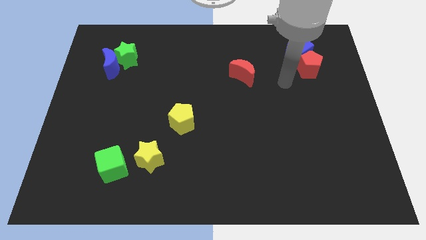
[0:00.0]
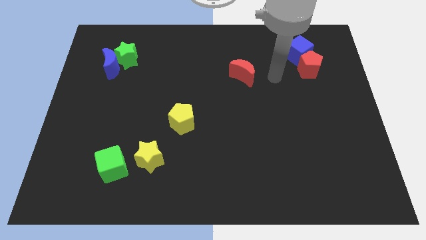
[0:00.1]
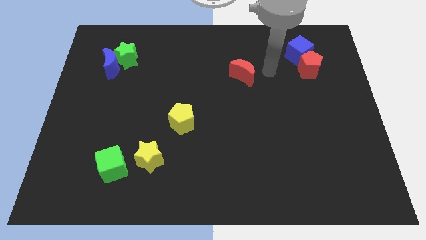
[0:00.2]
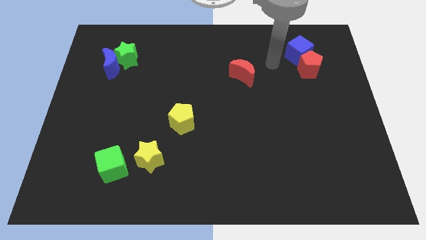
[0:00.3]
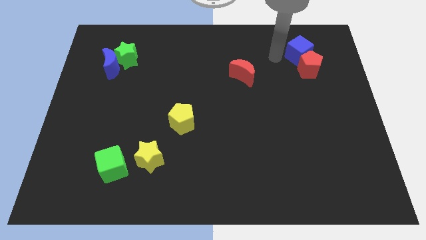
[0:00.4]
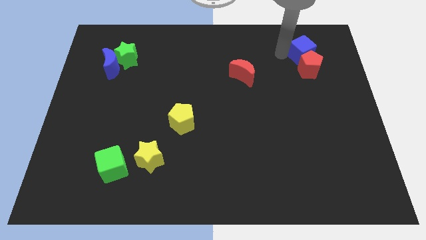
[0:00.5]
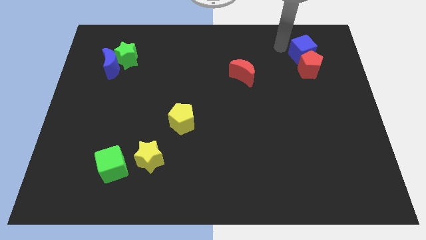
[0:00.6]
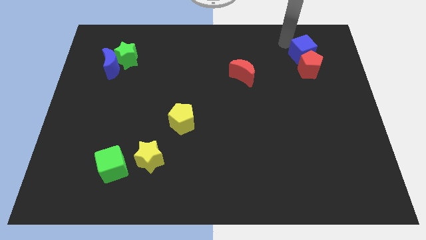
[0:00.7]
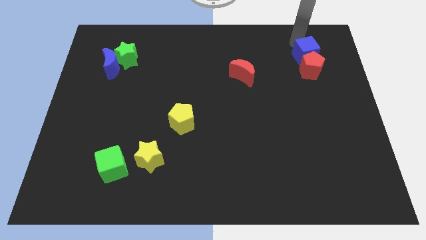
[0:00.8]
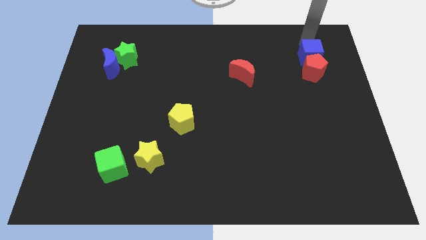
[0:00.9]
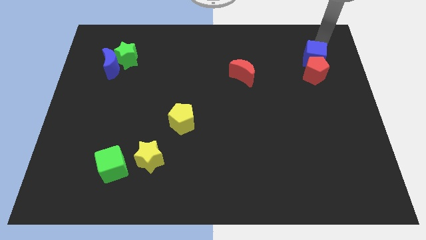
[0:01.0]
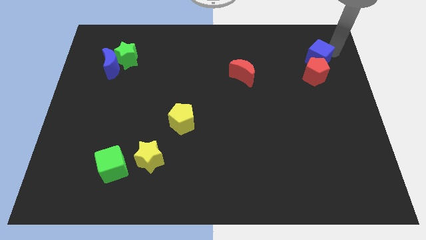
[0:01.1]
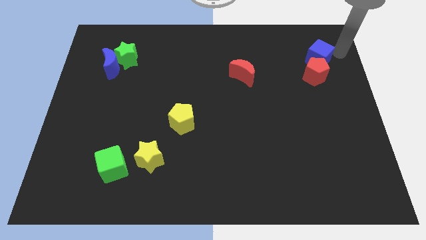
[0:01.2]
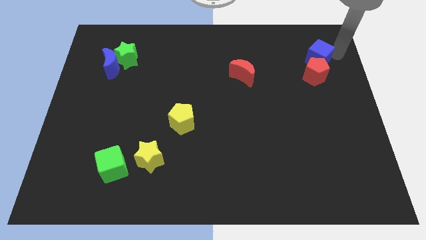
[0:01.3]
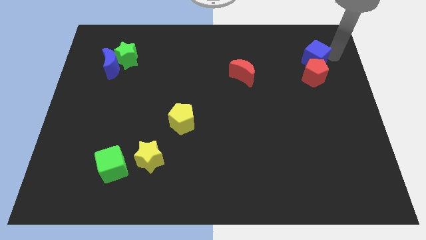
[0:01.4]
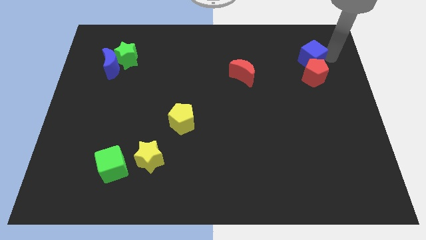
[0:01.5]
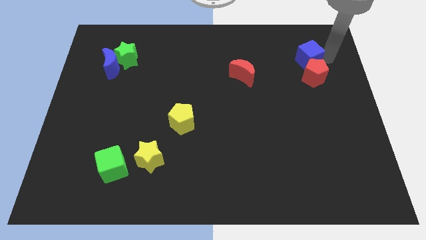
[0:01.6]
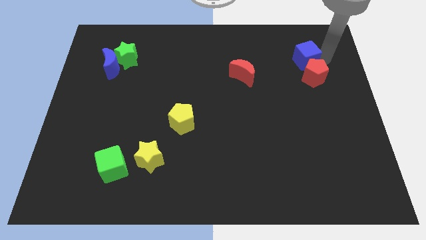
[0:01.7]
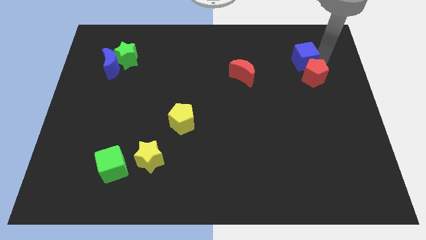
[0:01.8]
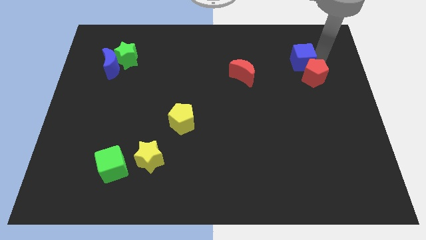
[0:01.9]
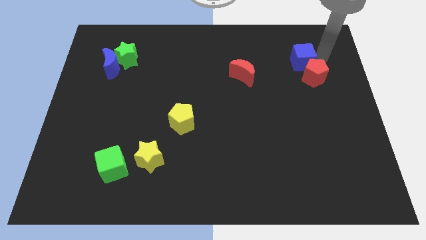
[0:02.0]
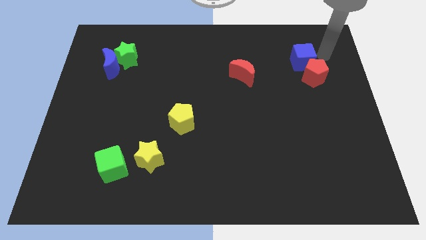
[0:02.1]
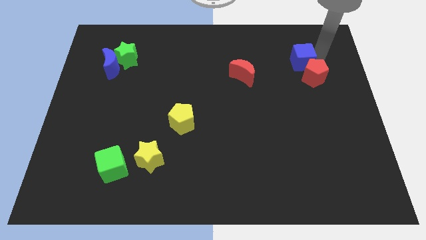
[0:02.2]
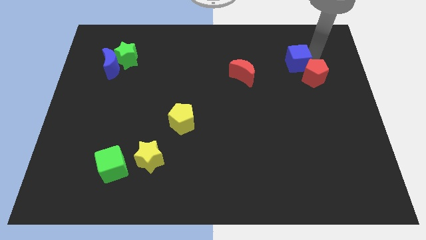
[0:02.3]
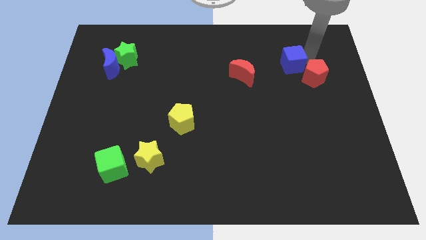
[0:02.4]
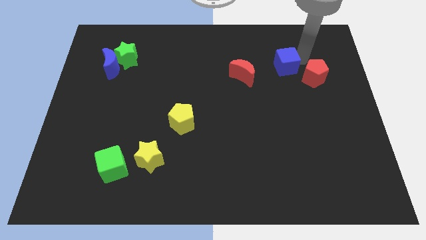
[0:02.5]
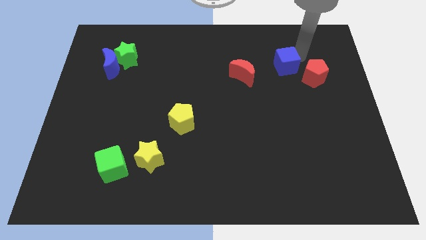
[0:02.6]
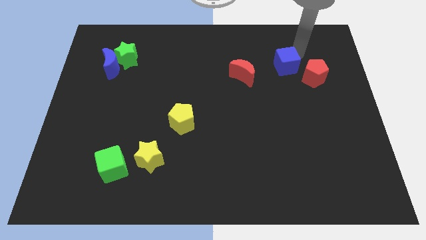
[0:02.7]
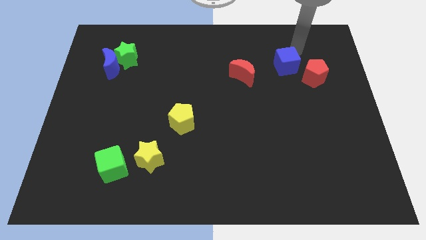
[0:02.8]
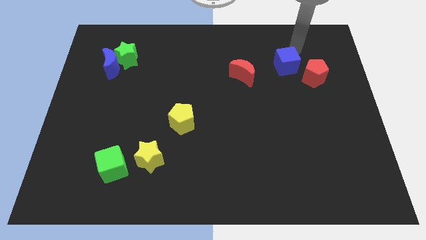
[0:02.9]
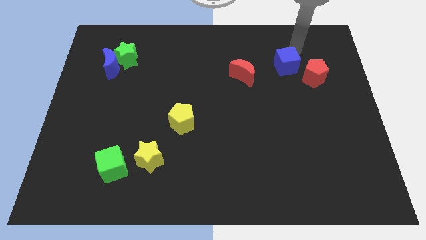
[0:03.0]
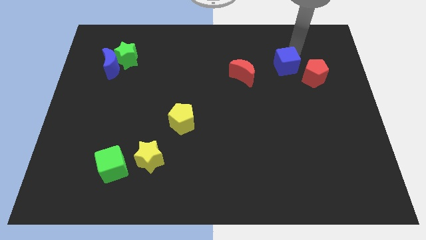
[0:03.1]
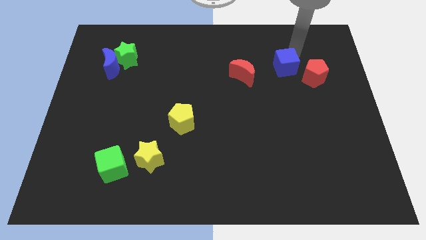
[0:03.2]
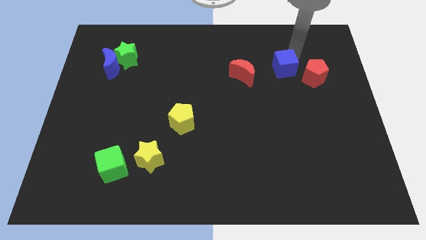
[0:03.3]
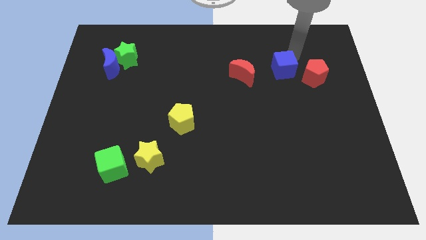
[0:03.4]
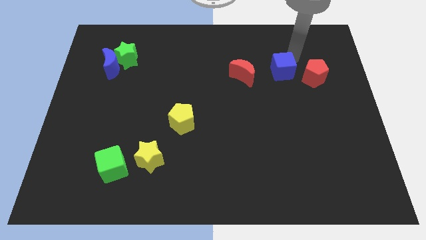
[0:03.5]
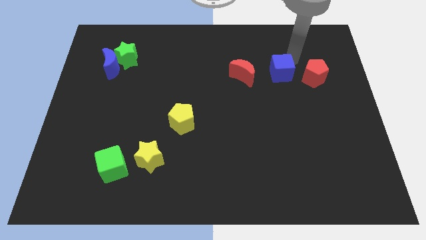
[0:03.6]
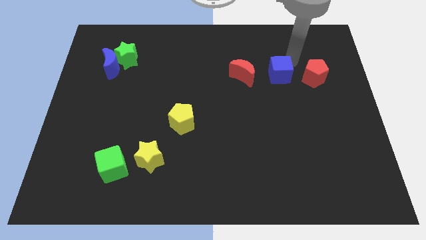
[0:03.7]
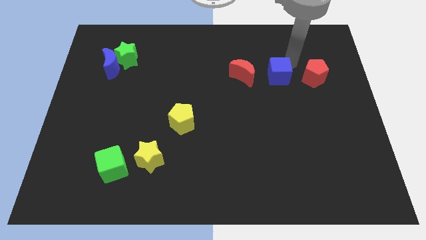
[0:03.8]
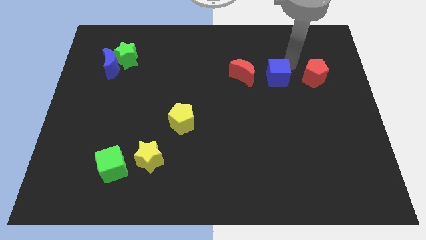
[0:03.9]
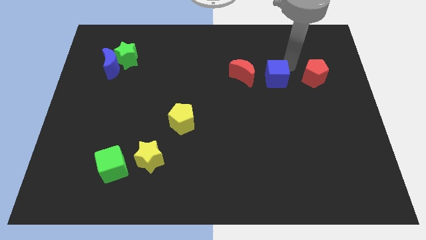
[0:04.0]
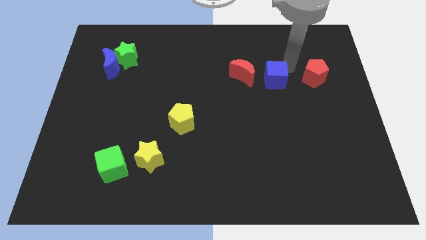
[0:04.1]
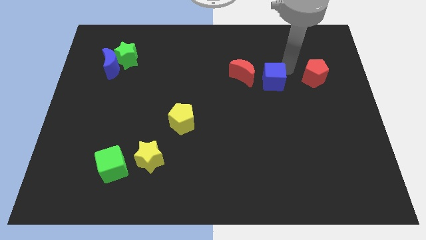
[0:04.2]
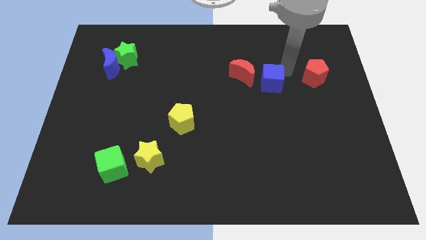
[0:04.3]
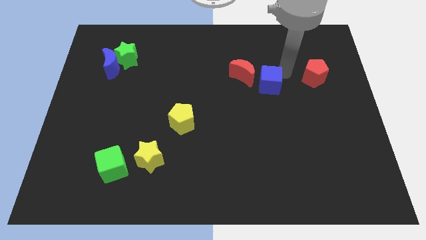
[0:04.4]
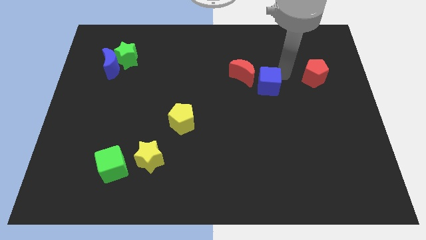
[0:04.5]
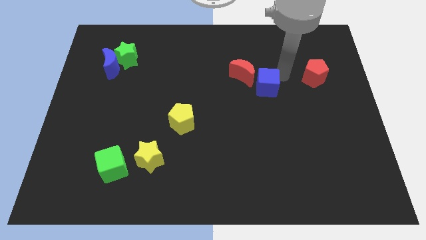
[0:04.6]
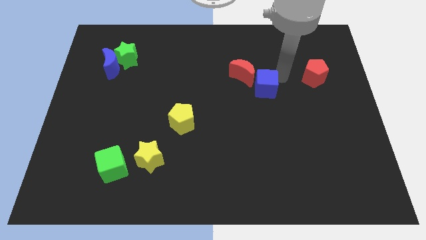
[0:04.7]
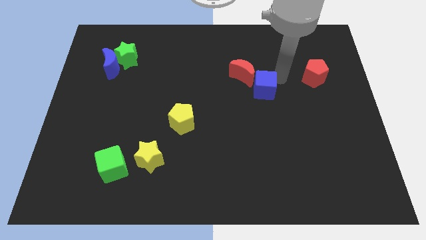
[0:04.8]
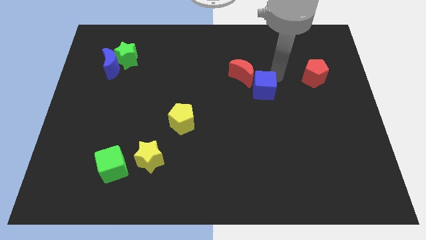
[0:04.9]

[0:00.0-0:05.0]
move the blue cube to the middle

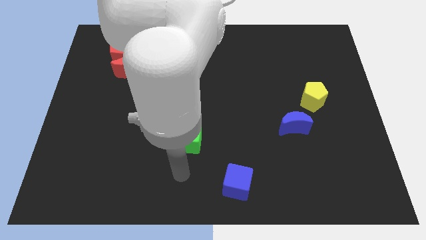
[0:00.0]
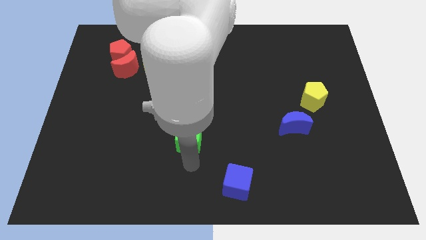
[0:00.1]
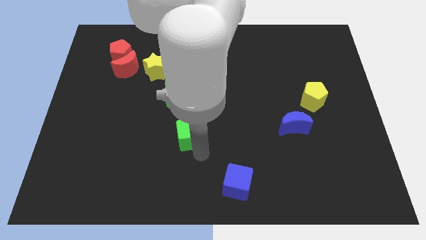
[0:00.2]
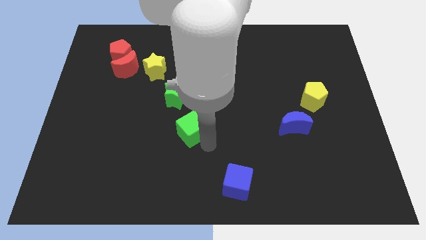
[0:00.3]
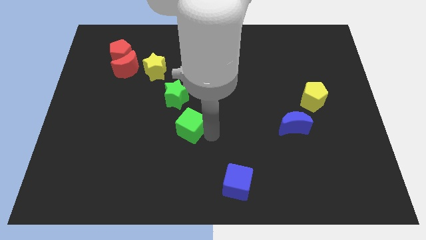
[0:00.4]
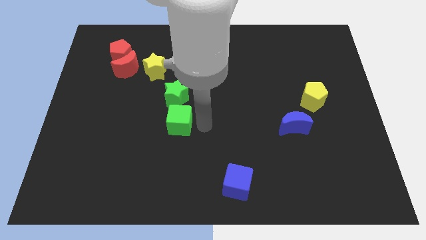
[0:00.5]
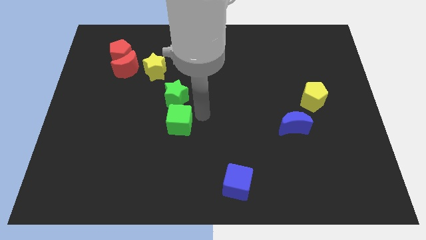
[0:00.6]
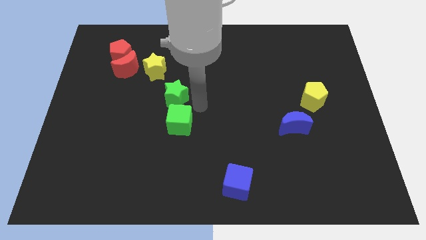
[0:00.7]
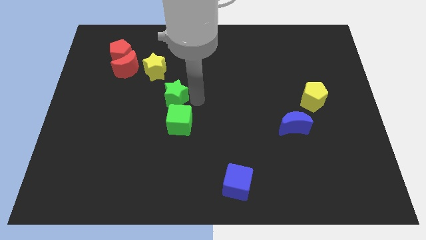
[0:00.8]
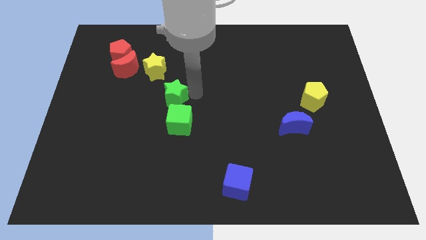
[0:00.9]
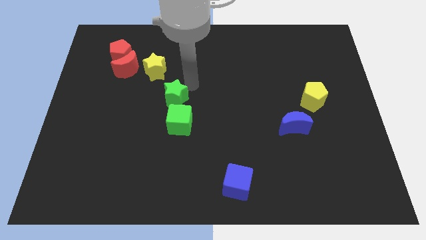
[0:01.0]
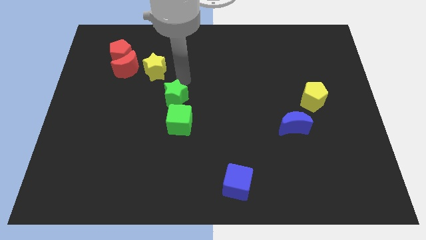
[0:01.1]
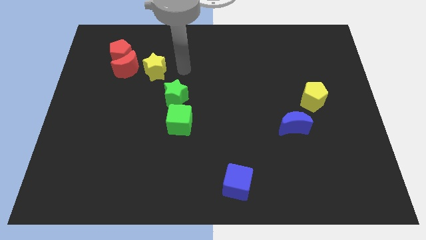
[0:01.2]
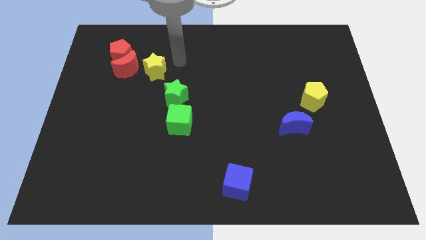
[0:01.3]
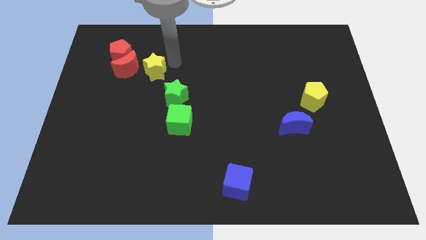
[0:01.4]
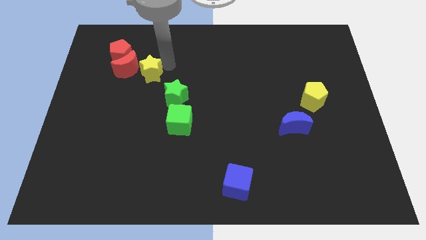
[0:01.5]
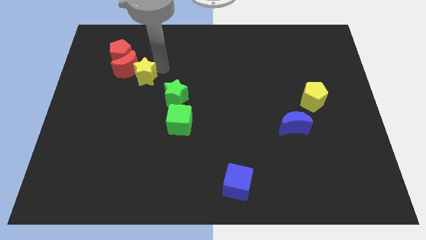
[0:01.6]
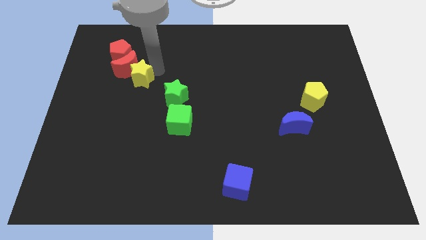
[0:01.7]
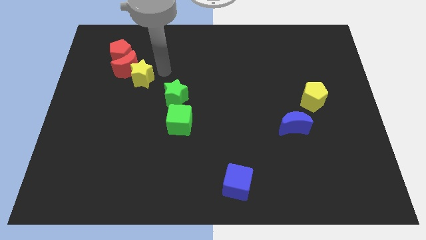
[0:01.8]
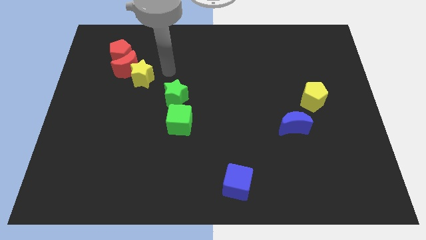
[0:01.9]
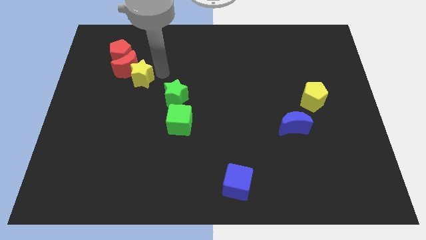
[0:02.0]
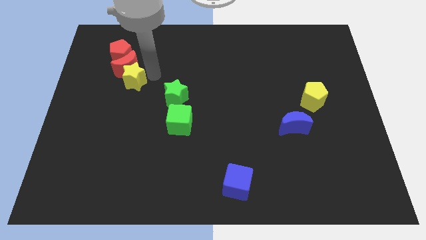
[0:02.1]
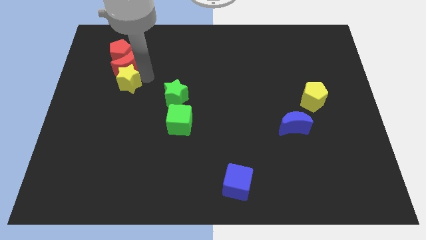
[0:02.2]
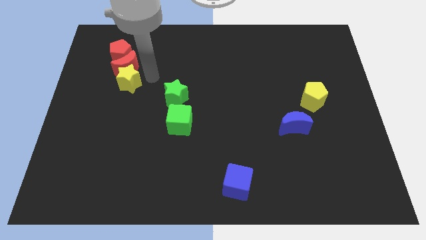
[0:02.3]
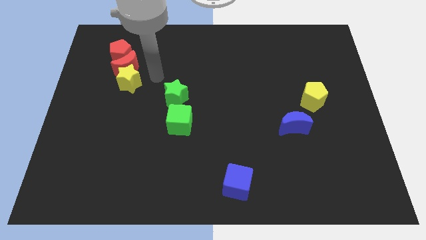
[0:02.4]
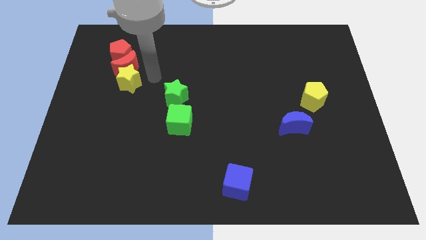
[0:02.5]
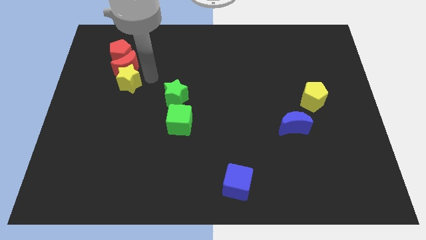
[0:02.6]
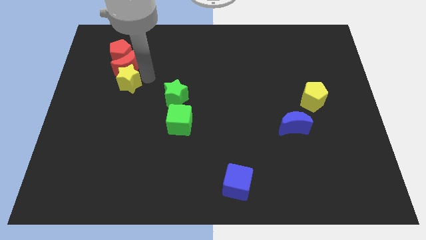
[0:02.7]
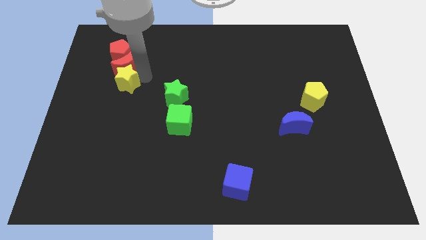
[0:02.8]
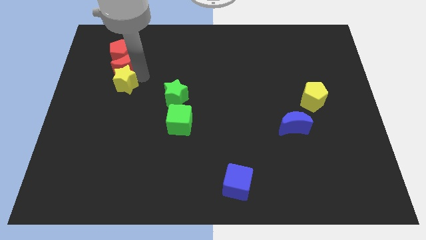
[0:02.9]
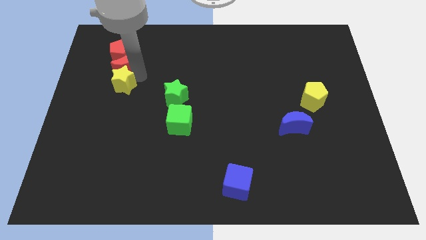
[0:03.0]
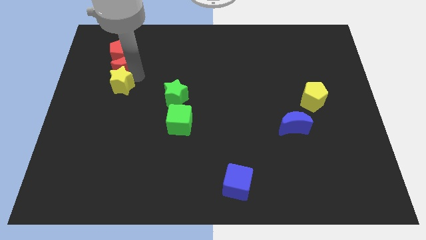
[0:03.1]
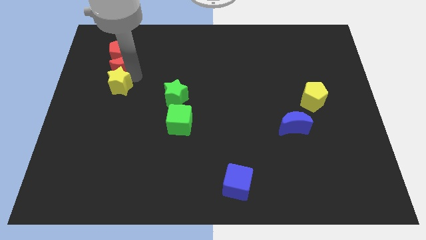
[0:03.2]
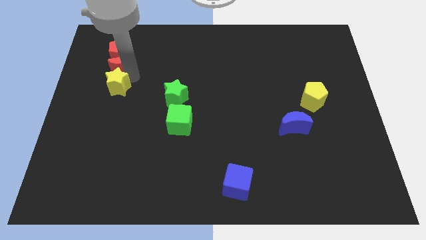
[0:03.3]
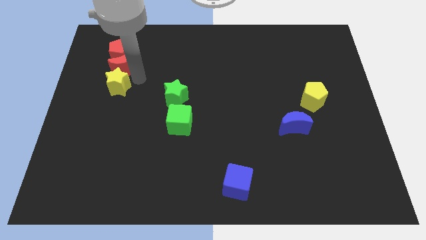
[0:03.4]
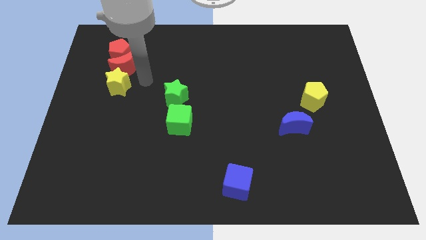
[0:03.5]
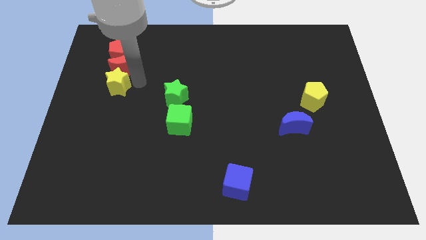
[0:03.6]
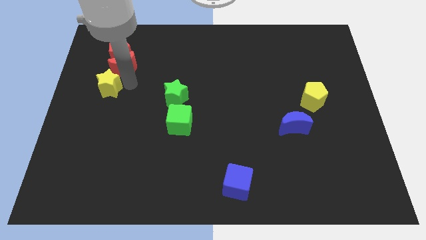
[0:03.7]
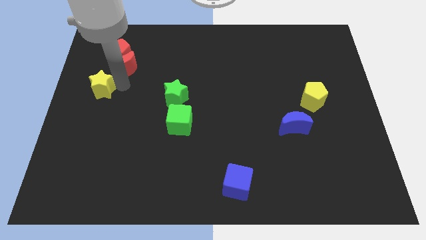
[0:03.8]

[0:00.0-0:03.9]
push the yellow star to the left side
